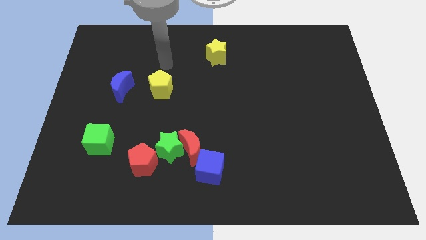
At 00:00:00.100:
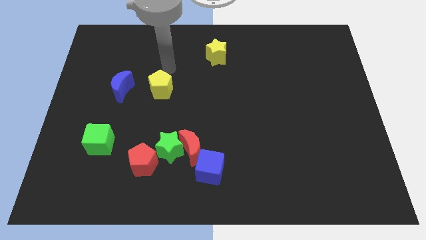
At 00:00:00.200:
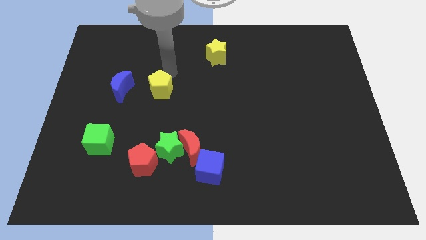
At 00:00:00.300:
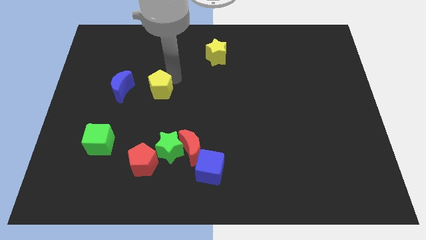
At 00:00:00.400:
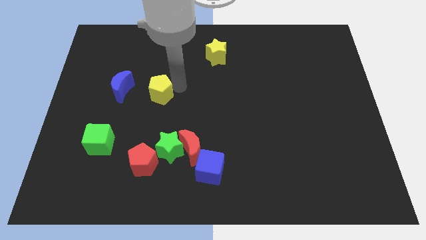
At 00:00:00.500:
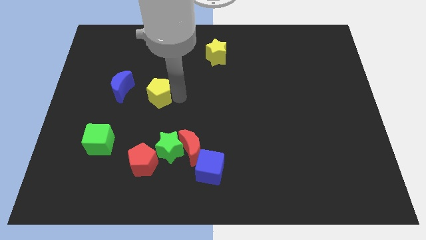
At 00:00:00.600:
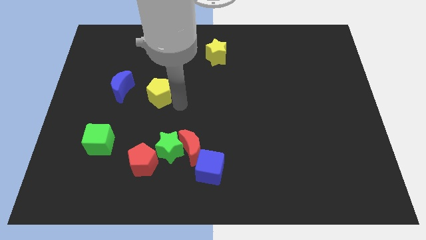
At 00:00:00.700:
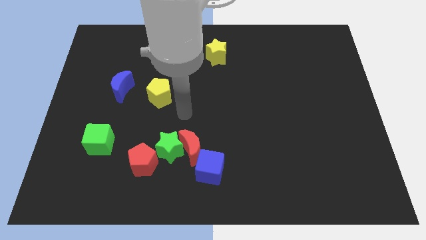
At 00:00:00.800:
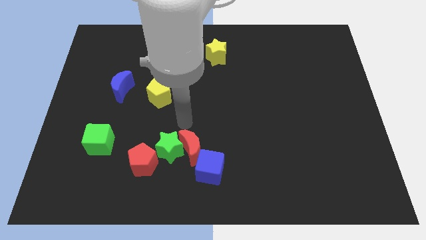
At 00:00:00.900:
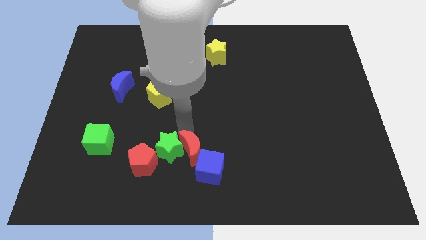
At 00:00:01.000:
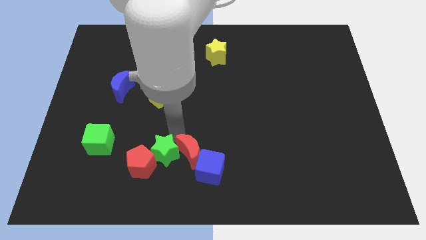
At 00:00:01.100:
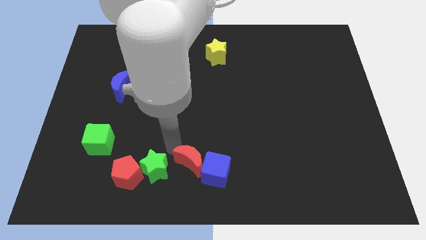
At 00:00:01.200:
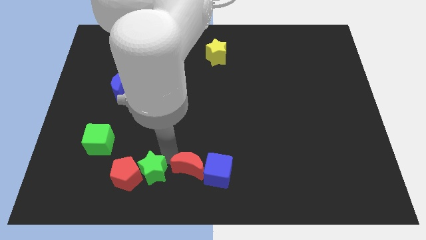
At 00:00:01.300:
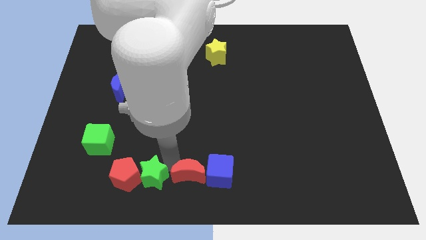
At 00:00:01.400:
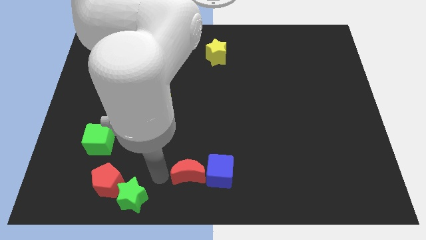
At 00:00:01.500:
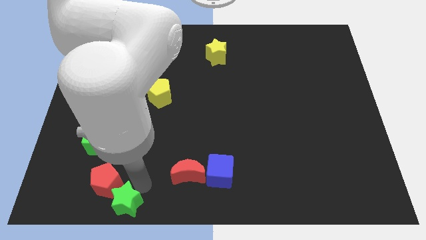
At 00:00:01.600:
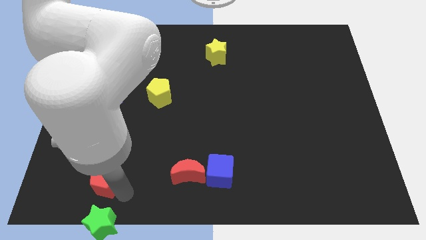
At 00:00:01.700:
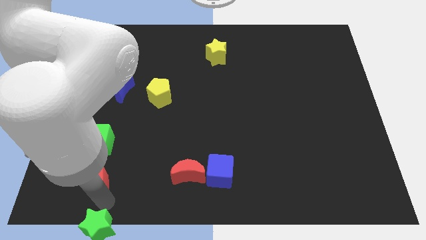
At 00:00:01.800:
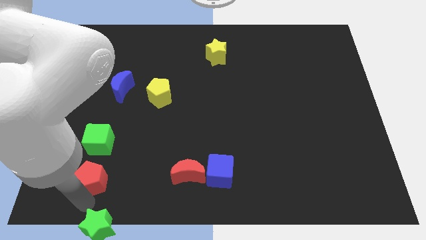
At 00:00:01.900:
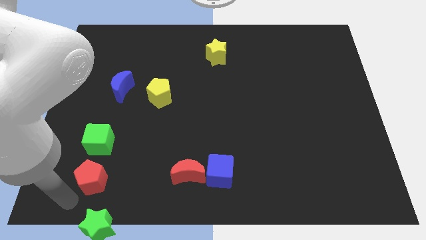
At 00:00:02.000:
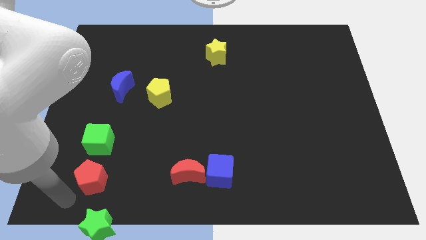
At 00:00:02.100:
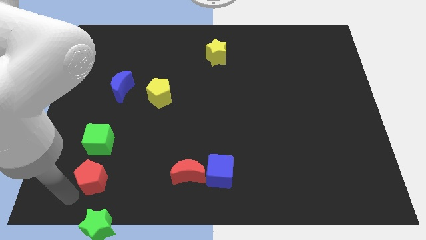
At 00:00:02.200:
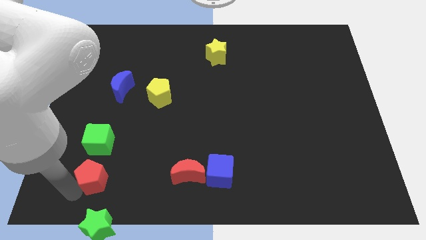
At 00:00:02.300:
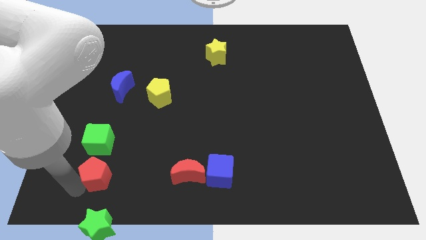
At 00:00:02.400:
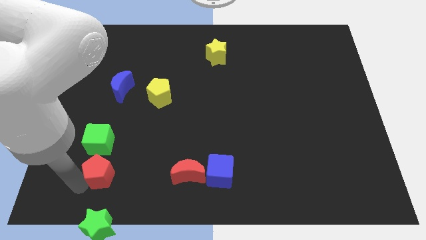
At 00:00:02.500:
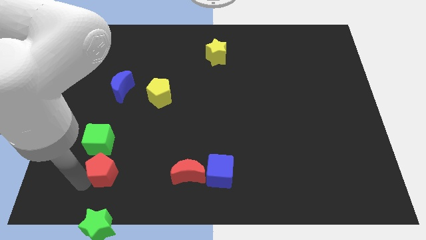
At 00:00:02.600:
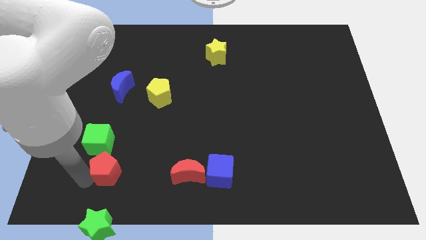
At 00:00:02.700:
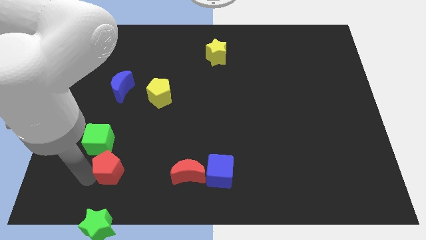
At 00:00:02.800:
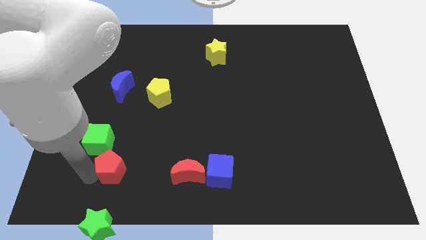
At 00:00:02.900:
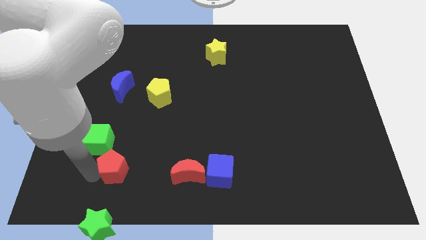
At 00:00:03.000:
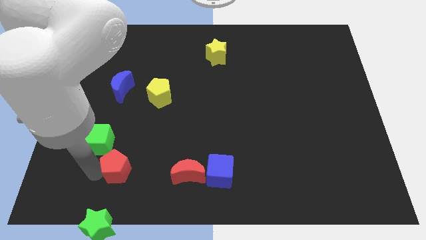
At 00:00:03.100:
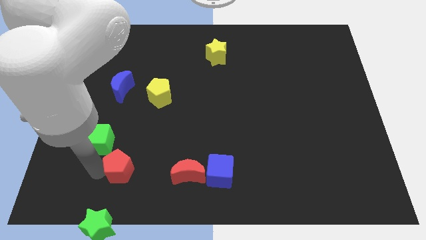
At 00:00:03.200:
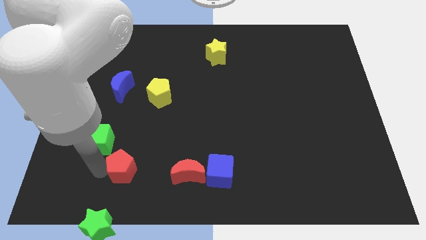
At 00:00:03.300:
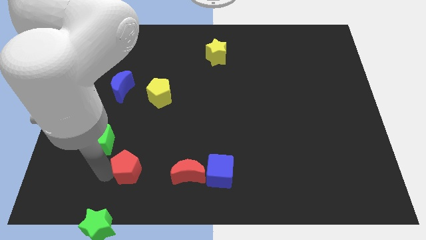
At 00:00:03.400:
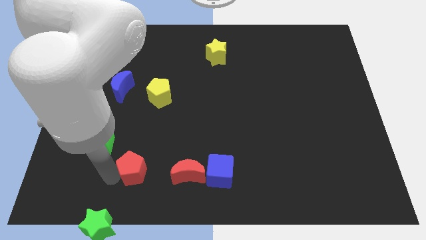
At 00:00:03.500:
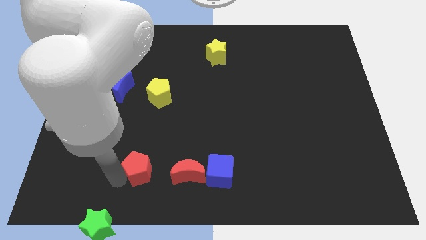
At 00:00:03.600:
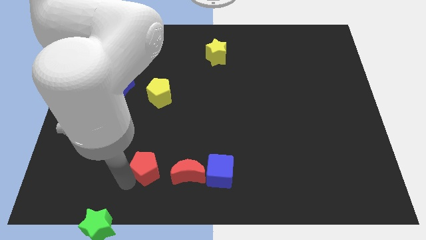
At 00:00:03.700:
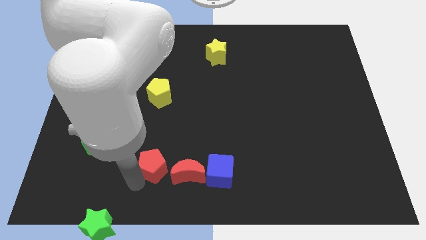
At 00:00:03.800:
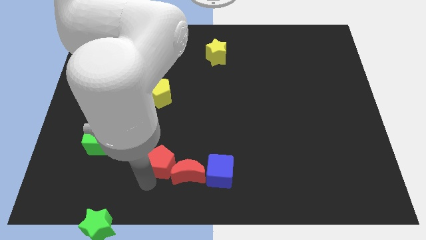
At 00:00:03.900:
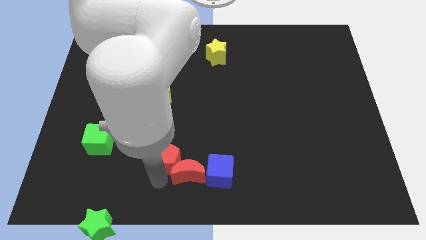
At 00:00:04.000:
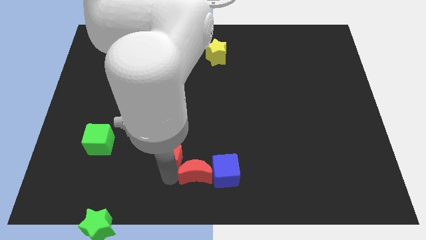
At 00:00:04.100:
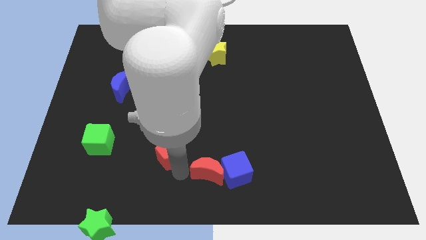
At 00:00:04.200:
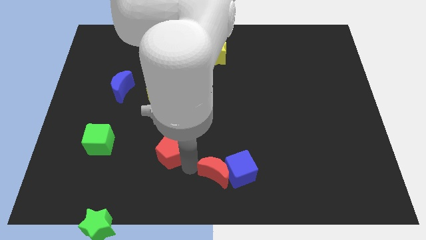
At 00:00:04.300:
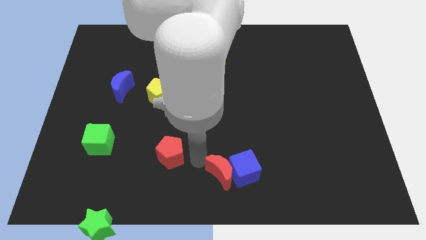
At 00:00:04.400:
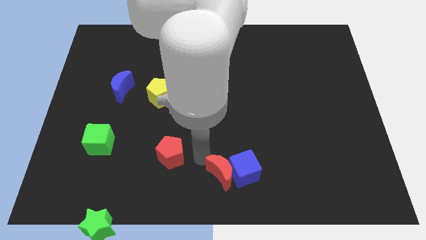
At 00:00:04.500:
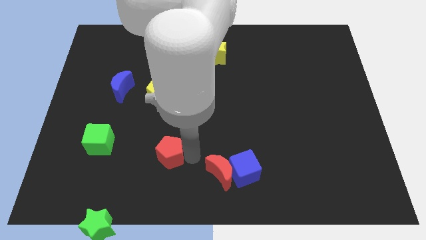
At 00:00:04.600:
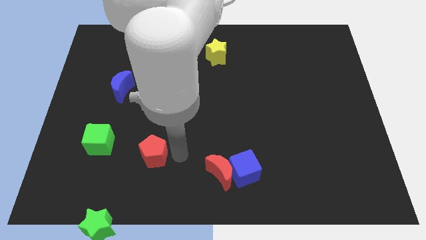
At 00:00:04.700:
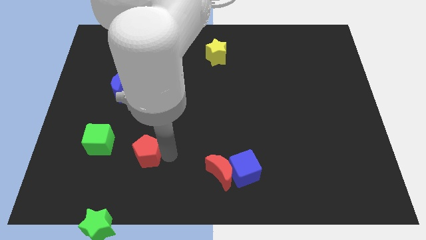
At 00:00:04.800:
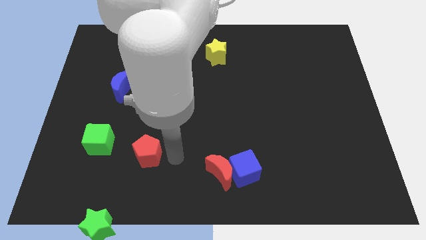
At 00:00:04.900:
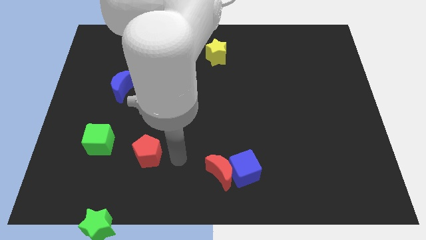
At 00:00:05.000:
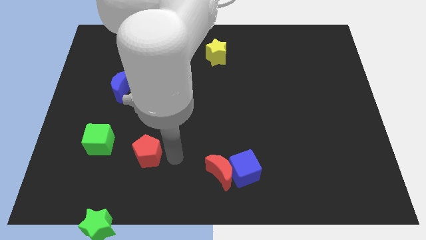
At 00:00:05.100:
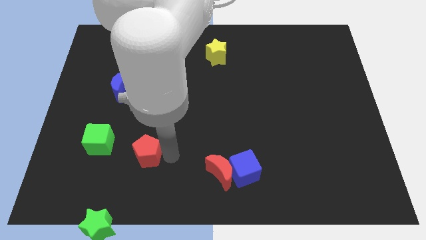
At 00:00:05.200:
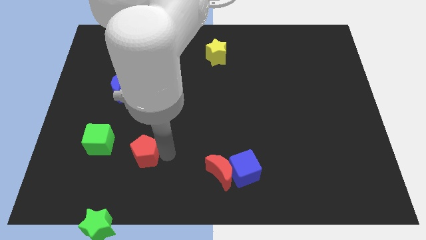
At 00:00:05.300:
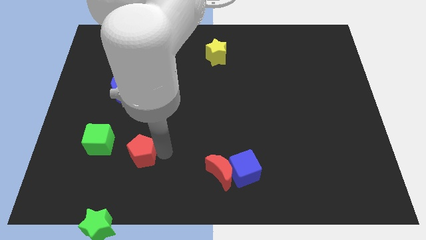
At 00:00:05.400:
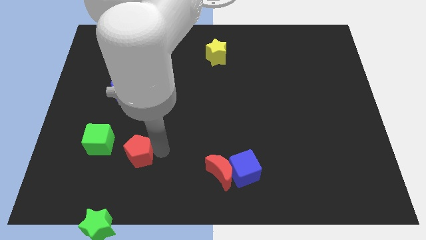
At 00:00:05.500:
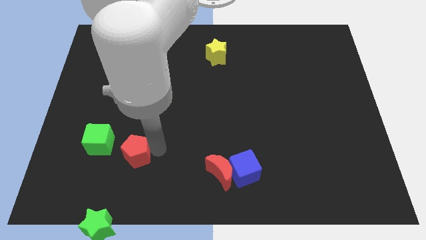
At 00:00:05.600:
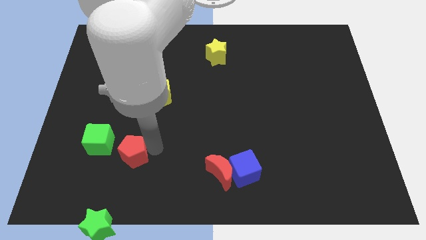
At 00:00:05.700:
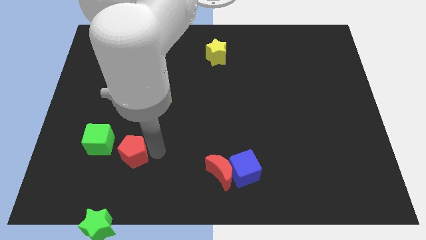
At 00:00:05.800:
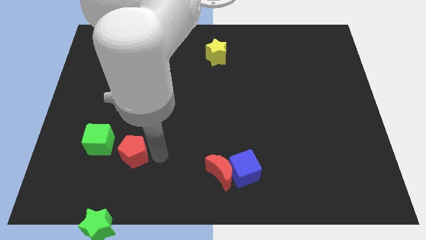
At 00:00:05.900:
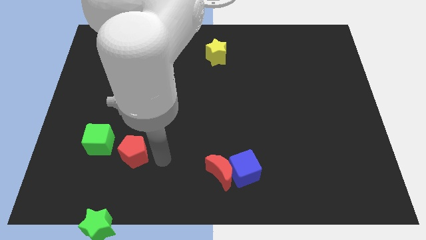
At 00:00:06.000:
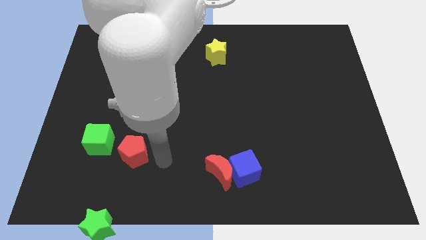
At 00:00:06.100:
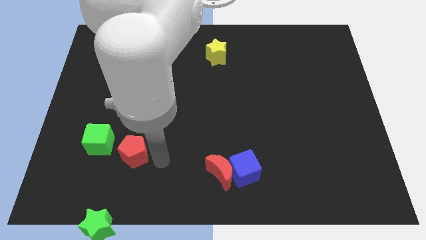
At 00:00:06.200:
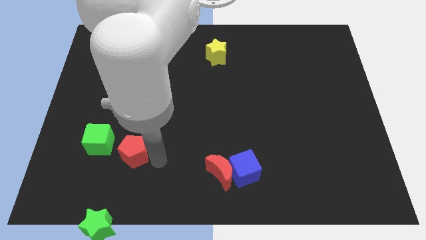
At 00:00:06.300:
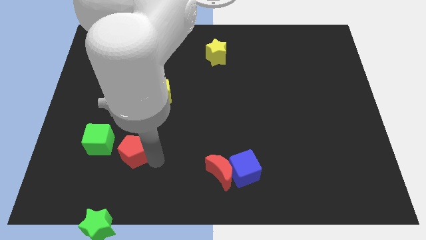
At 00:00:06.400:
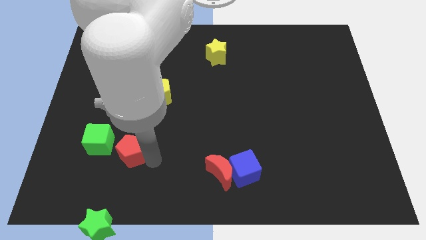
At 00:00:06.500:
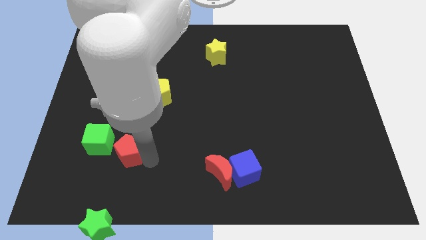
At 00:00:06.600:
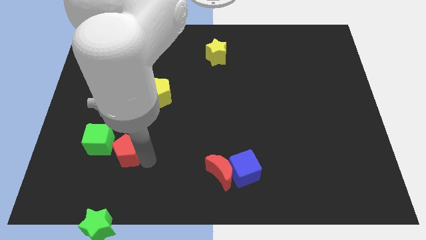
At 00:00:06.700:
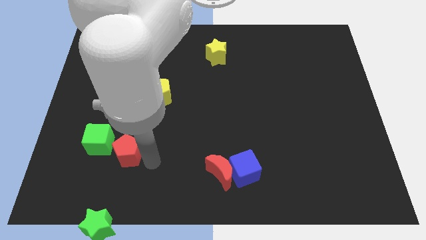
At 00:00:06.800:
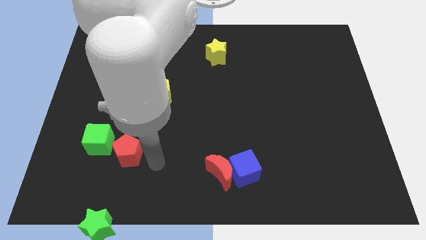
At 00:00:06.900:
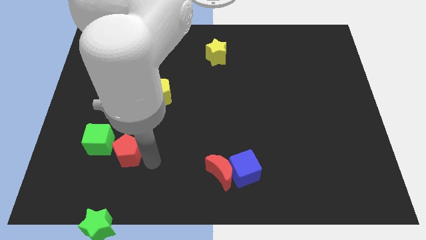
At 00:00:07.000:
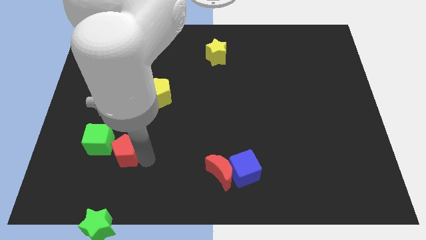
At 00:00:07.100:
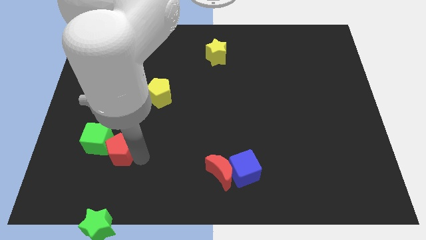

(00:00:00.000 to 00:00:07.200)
push the red pentagon next to the green cube
